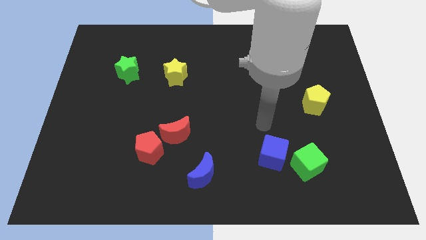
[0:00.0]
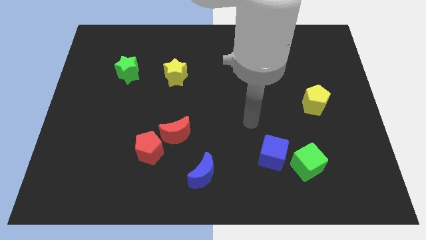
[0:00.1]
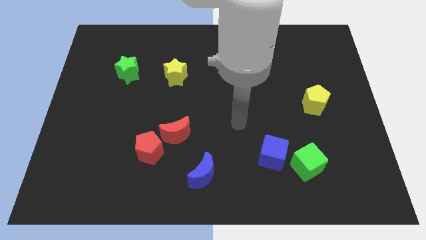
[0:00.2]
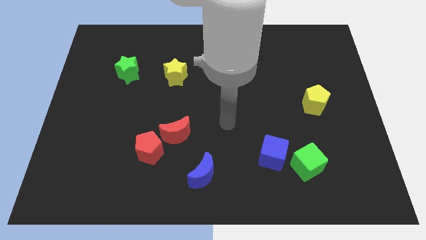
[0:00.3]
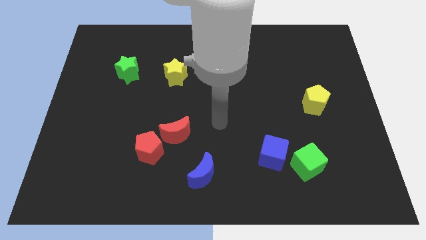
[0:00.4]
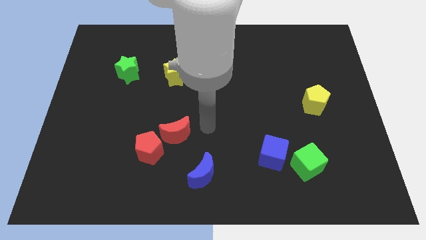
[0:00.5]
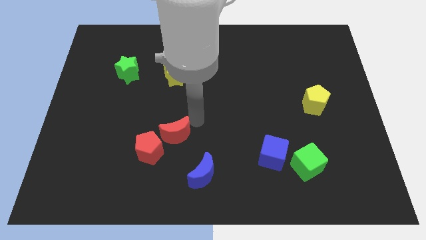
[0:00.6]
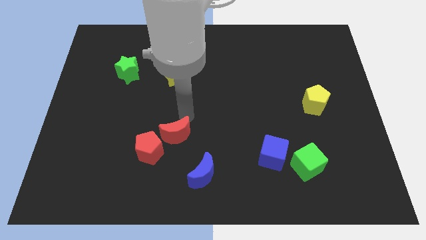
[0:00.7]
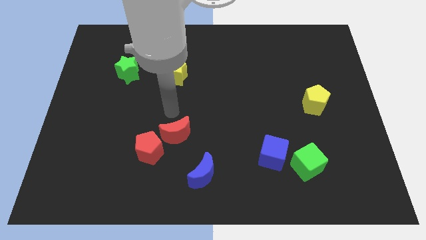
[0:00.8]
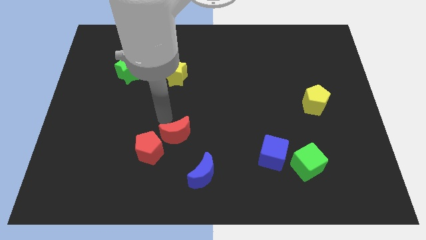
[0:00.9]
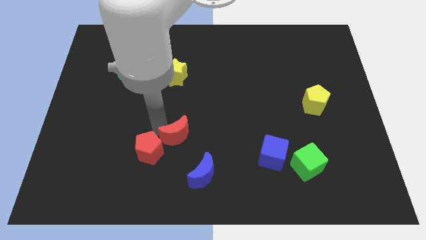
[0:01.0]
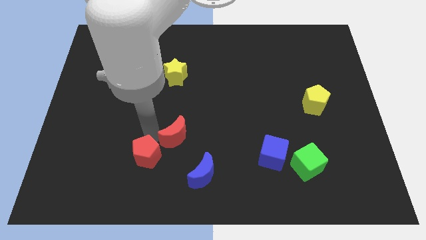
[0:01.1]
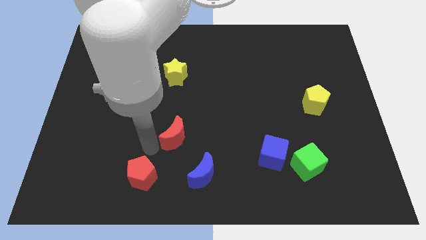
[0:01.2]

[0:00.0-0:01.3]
pull the red moon apart from the red pentagon

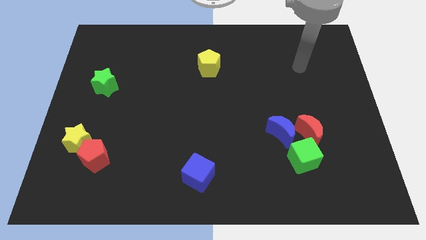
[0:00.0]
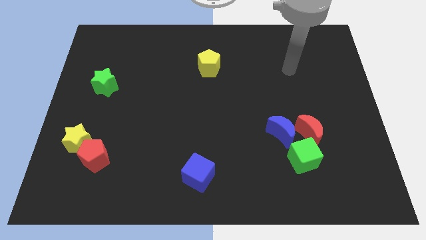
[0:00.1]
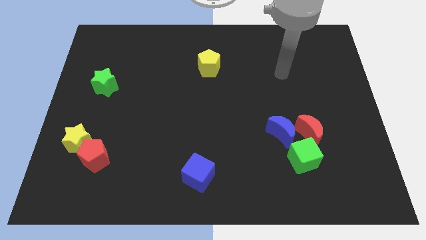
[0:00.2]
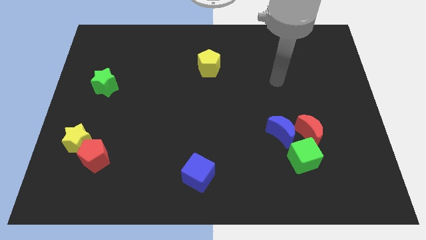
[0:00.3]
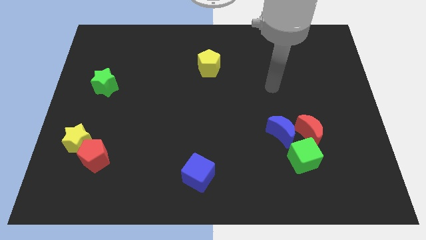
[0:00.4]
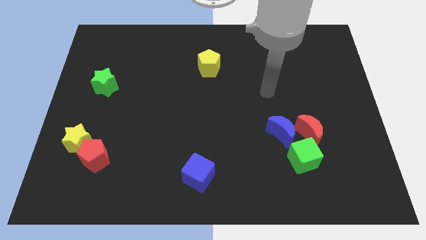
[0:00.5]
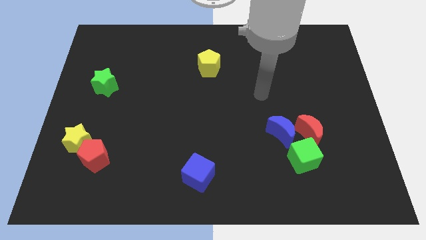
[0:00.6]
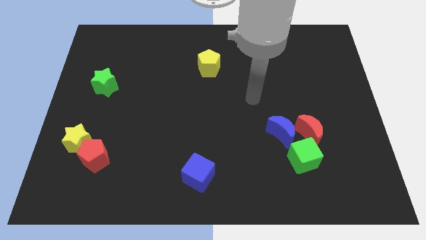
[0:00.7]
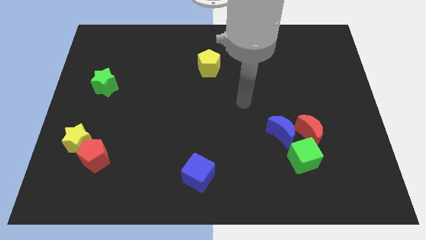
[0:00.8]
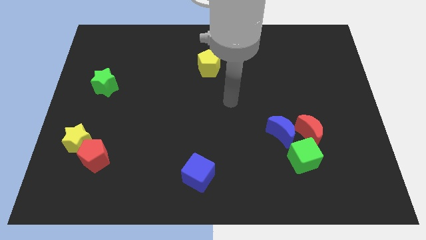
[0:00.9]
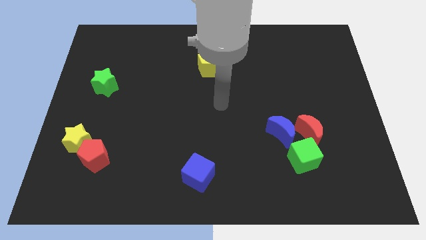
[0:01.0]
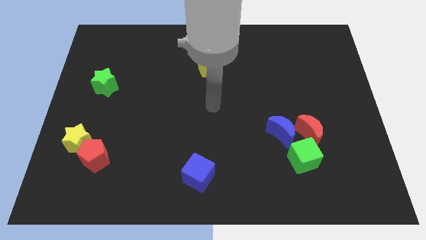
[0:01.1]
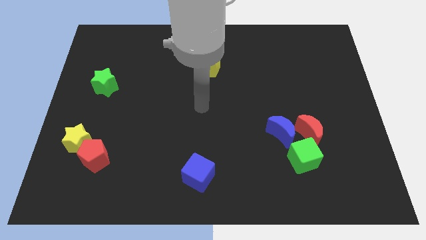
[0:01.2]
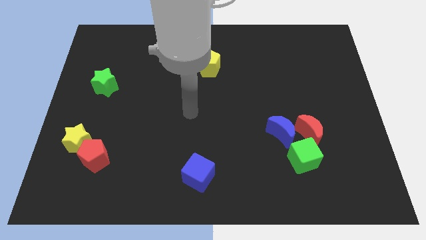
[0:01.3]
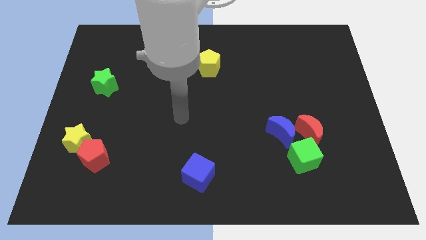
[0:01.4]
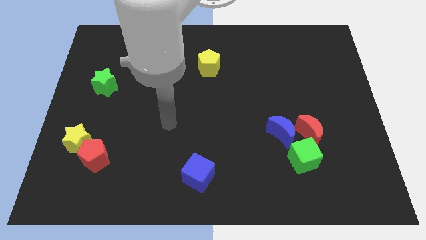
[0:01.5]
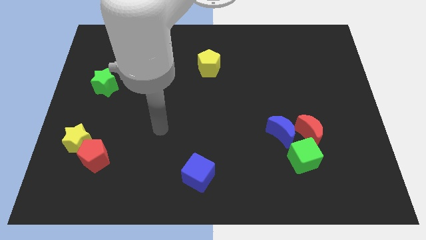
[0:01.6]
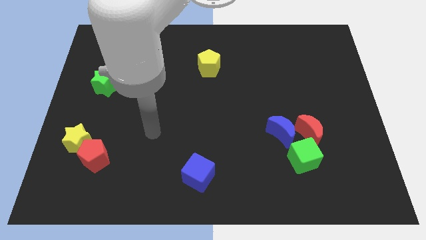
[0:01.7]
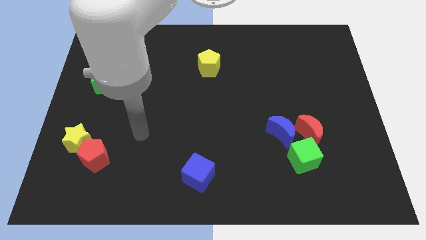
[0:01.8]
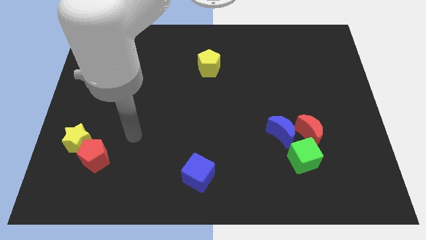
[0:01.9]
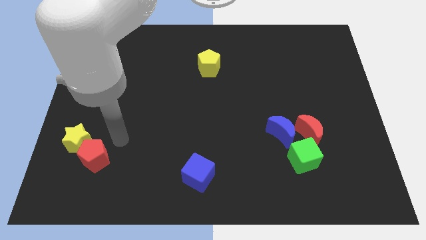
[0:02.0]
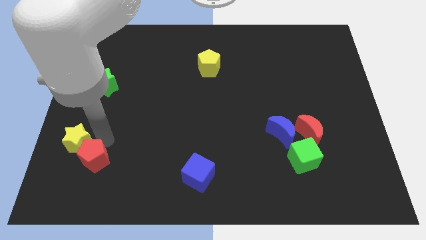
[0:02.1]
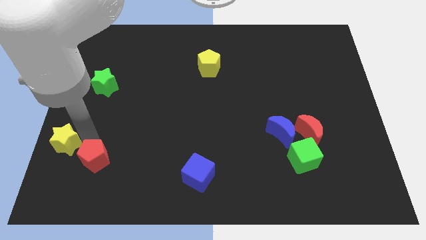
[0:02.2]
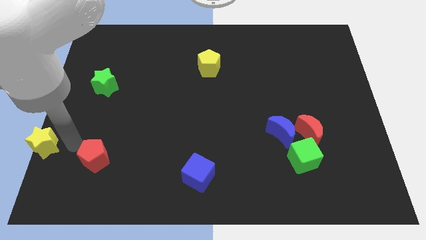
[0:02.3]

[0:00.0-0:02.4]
move the red pentagon away from the yellow star

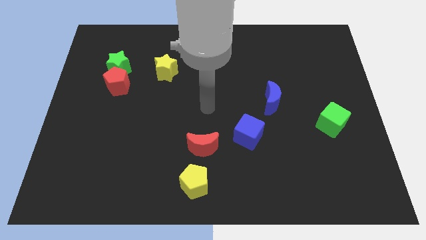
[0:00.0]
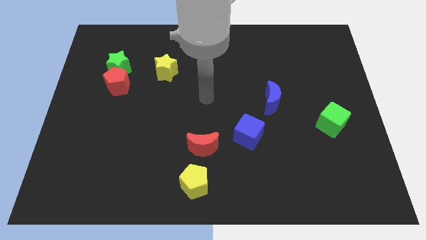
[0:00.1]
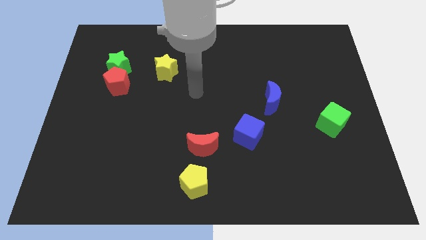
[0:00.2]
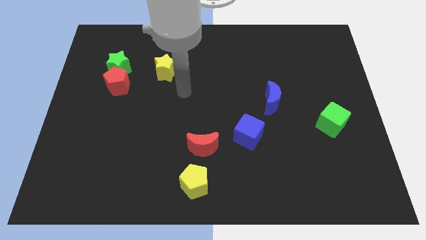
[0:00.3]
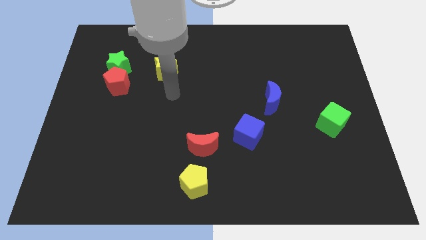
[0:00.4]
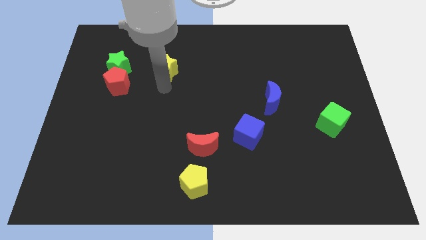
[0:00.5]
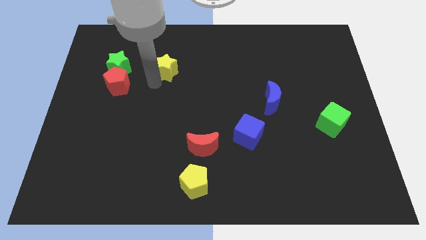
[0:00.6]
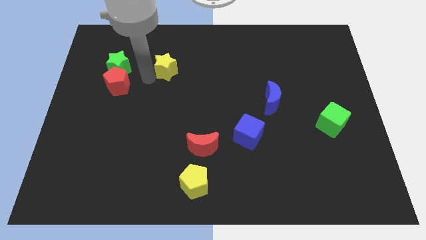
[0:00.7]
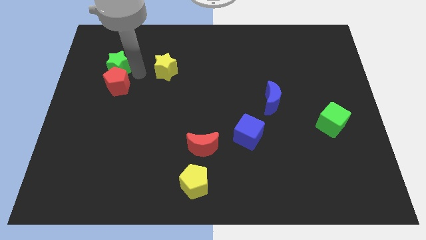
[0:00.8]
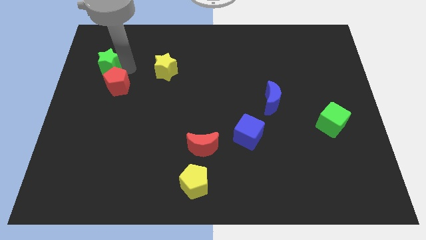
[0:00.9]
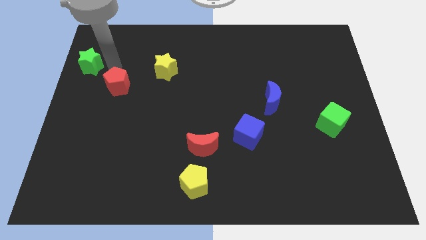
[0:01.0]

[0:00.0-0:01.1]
pull the red pentagon apart from the green star

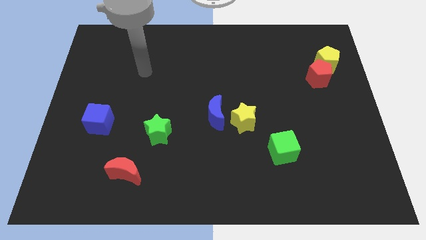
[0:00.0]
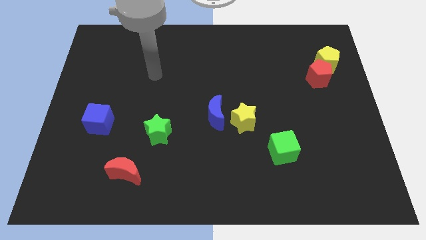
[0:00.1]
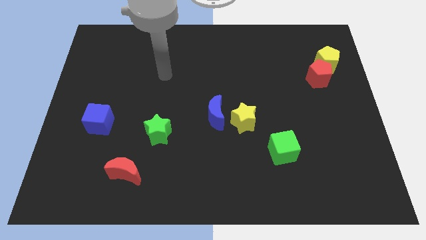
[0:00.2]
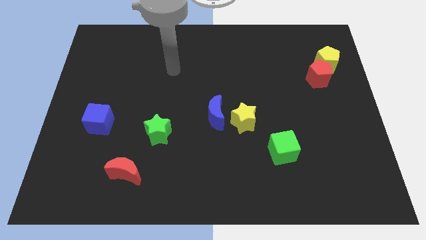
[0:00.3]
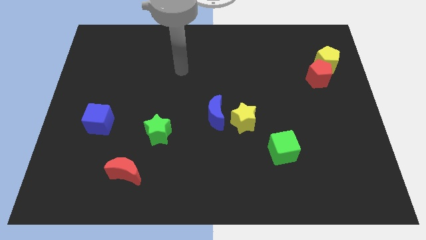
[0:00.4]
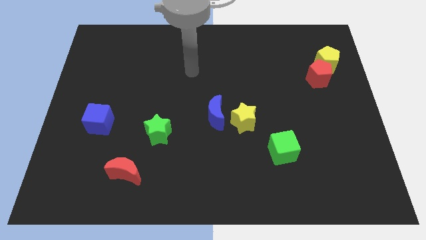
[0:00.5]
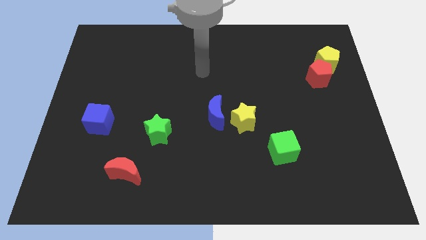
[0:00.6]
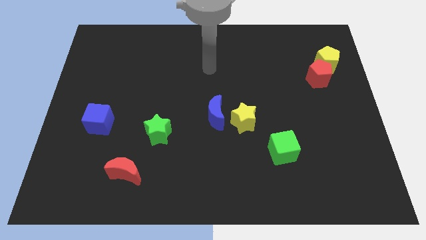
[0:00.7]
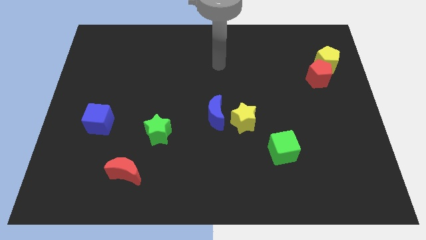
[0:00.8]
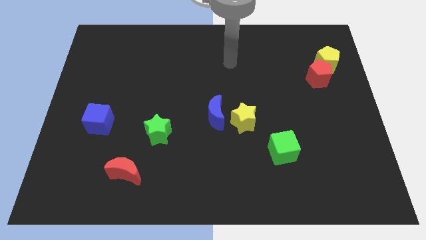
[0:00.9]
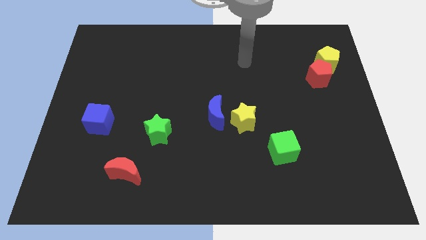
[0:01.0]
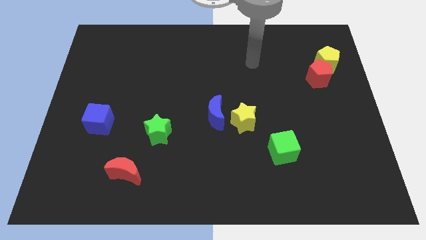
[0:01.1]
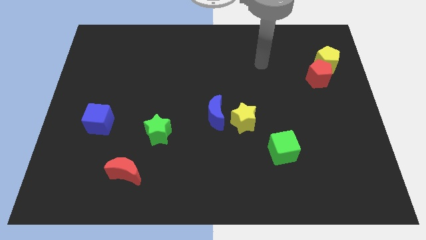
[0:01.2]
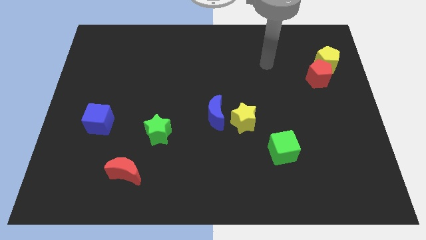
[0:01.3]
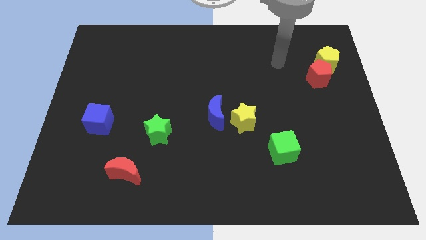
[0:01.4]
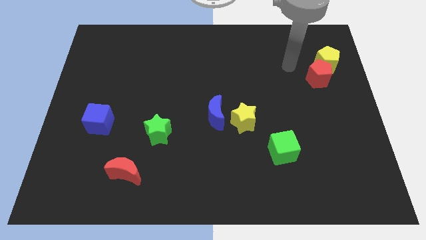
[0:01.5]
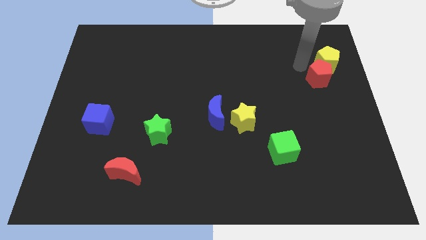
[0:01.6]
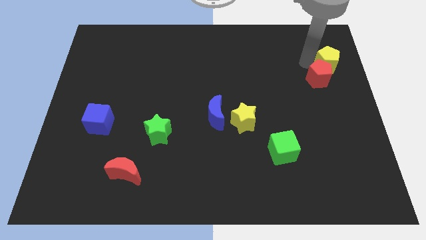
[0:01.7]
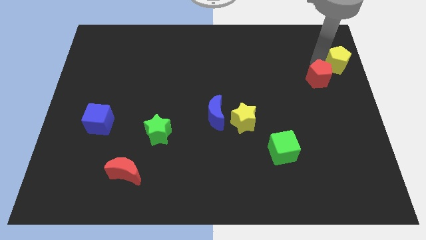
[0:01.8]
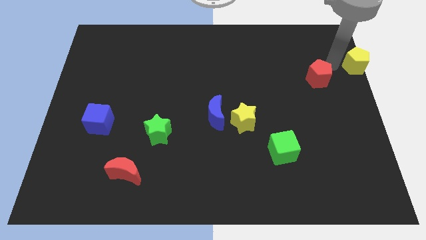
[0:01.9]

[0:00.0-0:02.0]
move the red pentagon away from the yellow pentagon

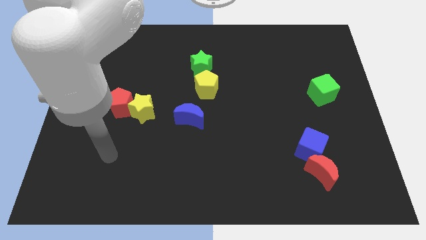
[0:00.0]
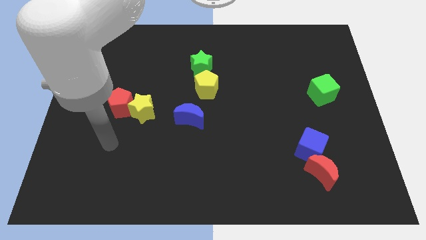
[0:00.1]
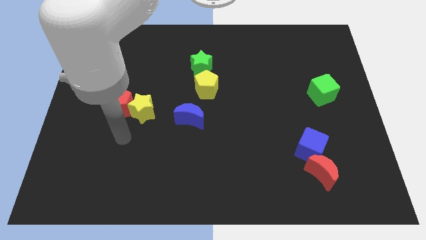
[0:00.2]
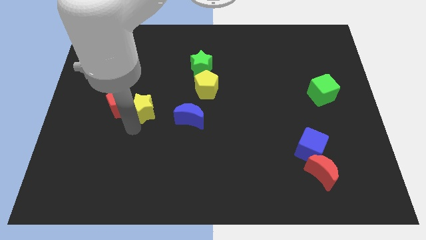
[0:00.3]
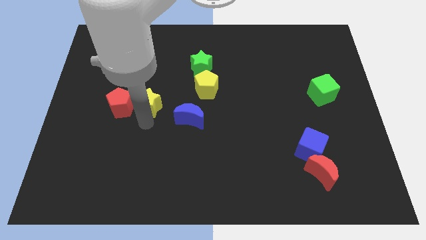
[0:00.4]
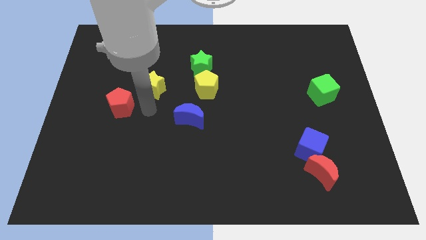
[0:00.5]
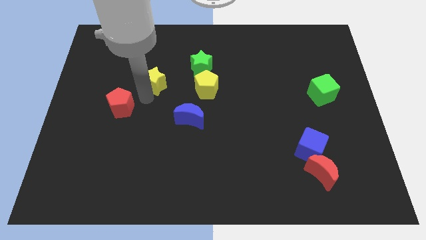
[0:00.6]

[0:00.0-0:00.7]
pull the red pentagon apart from the yellow star

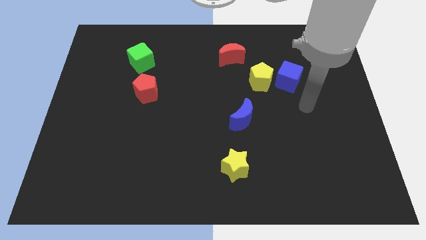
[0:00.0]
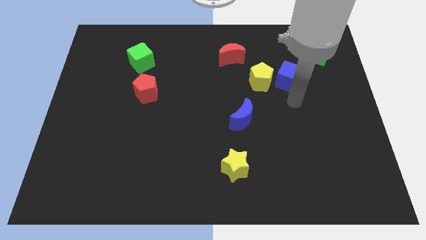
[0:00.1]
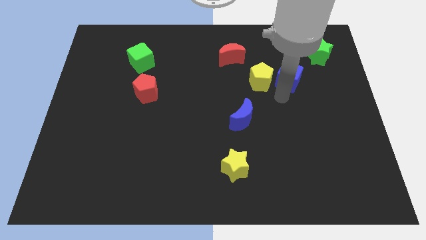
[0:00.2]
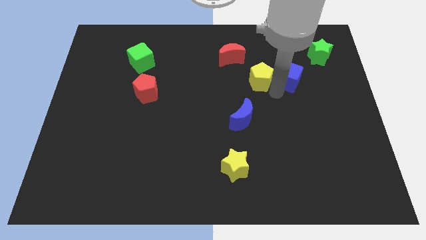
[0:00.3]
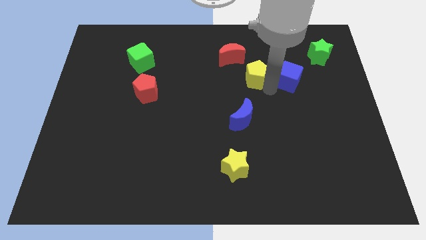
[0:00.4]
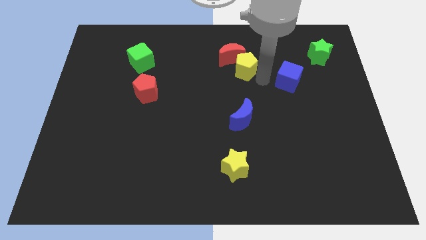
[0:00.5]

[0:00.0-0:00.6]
separate the blue cube from the yellow pentagon

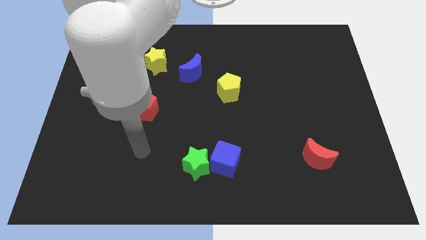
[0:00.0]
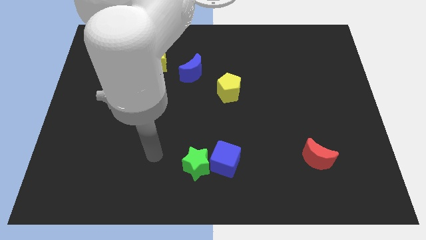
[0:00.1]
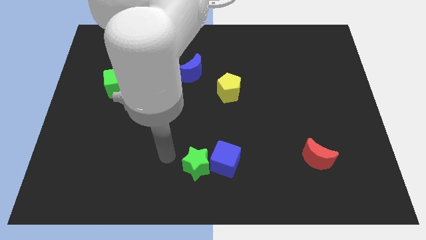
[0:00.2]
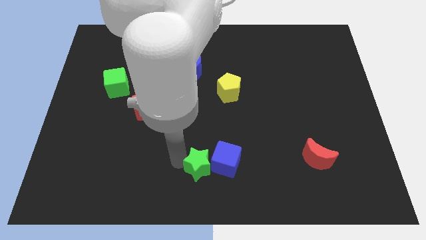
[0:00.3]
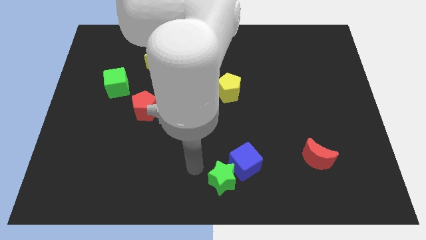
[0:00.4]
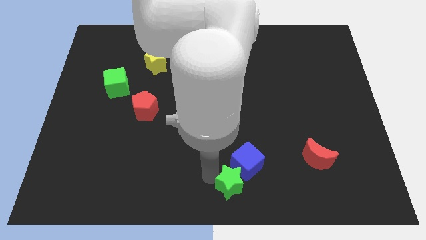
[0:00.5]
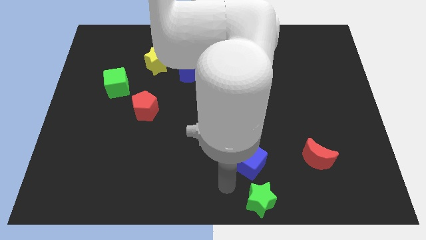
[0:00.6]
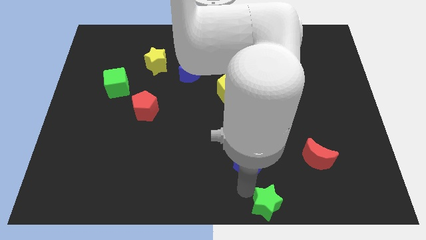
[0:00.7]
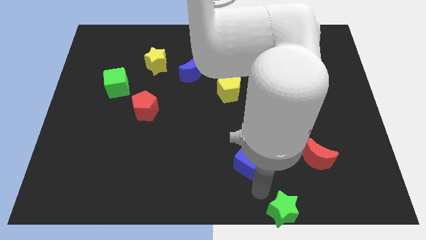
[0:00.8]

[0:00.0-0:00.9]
pull the blue cube apart from the green star

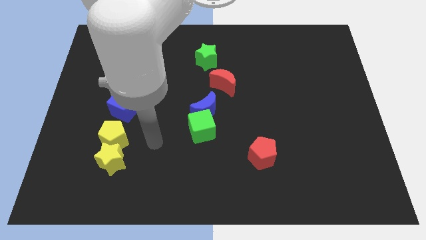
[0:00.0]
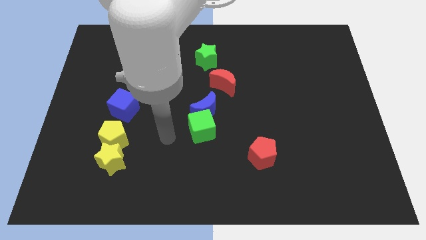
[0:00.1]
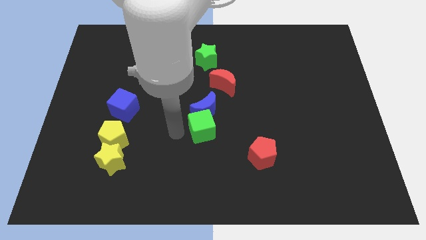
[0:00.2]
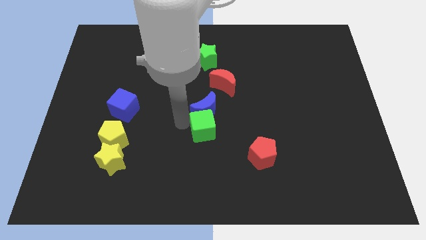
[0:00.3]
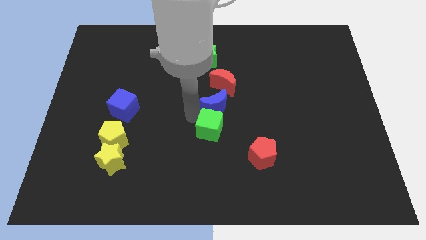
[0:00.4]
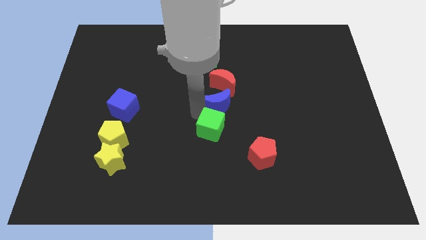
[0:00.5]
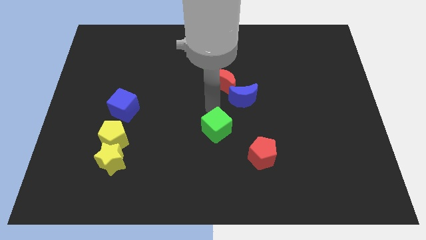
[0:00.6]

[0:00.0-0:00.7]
pull the green cube apart from the blue moon
